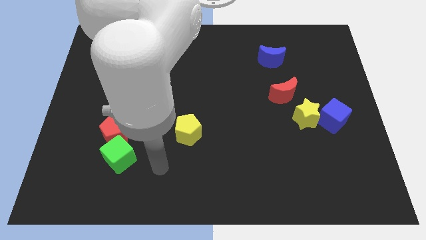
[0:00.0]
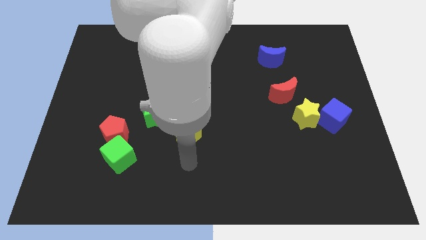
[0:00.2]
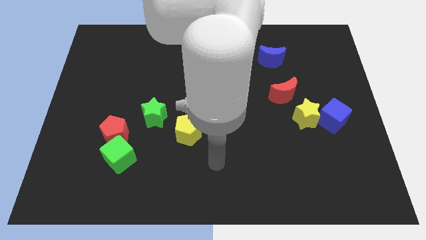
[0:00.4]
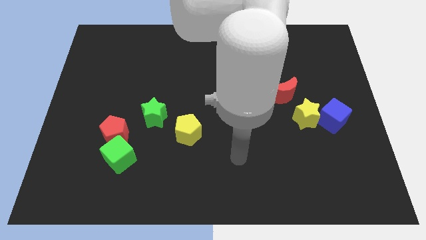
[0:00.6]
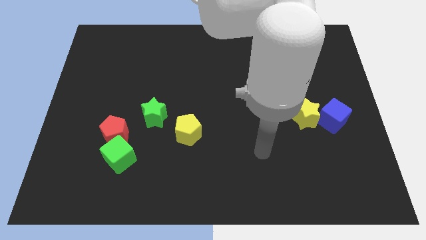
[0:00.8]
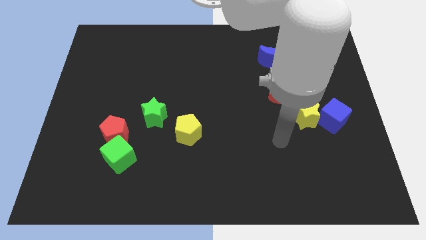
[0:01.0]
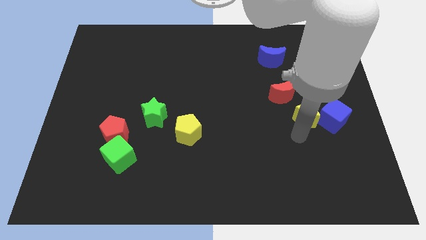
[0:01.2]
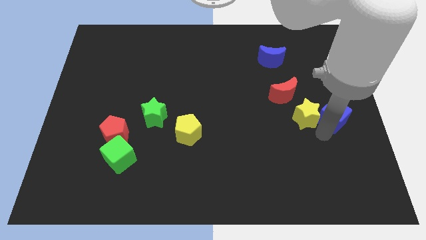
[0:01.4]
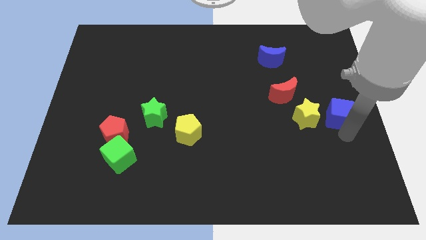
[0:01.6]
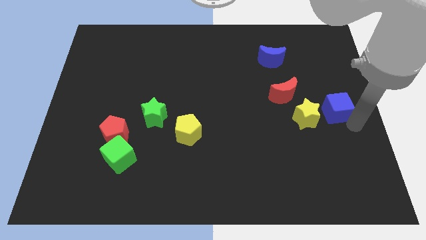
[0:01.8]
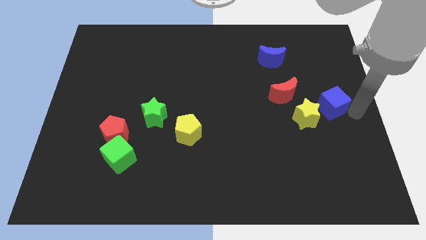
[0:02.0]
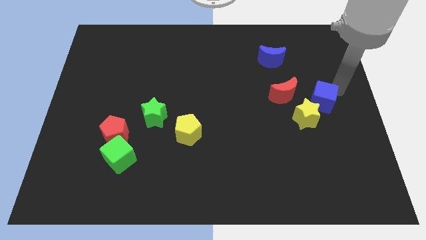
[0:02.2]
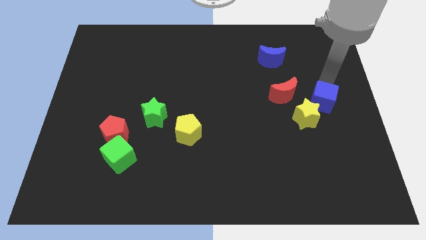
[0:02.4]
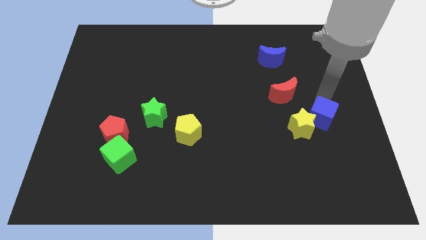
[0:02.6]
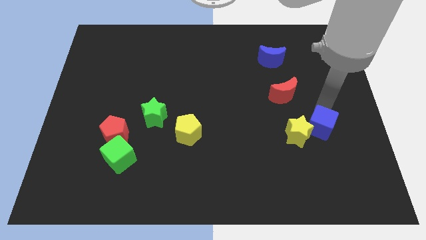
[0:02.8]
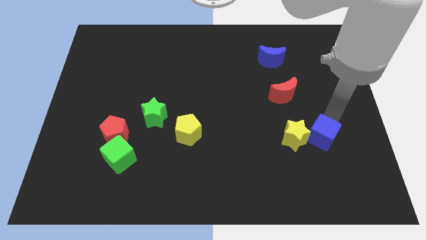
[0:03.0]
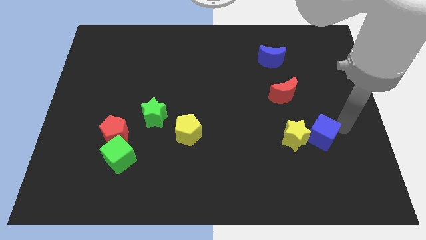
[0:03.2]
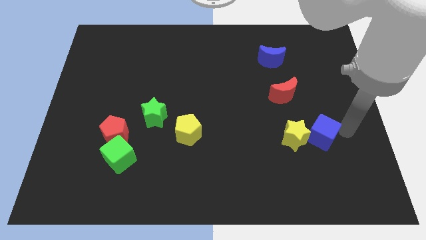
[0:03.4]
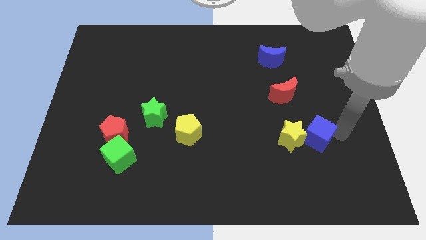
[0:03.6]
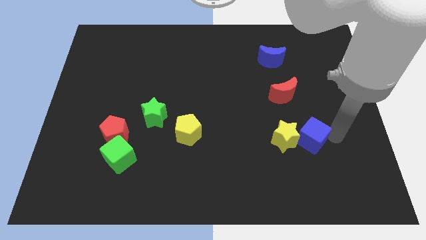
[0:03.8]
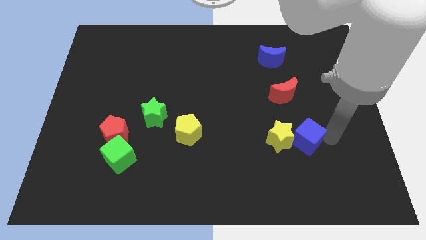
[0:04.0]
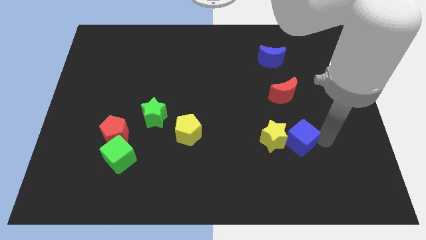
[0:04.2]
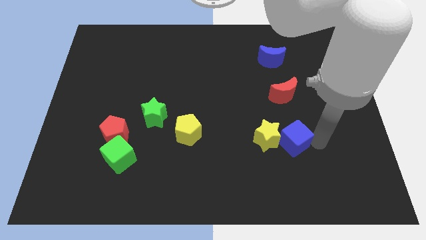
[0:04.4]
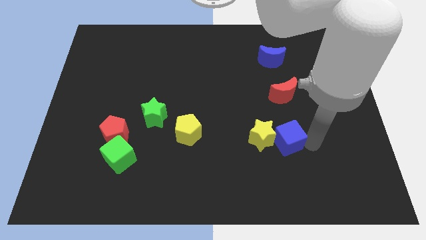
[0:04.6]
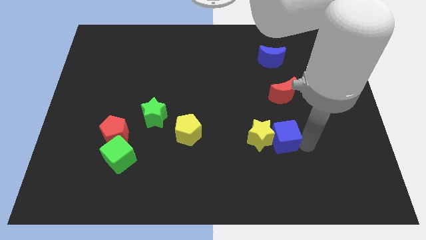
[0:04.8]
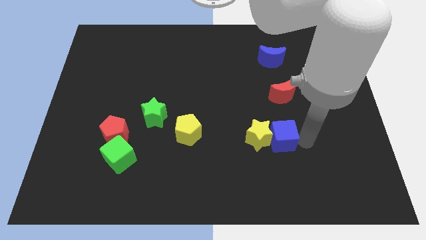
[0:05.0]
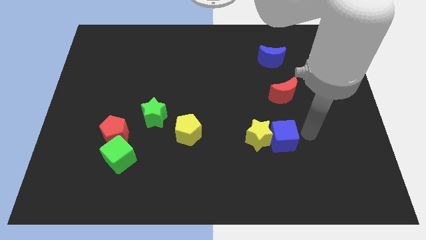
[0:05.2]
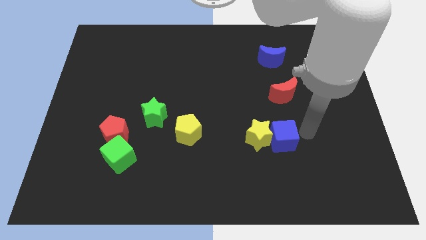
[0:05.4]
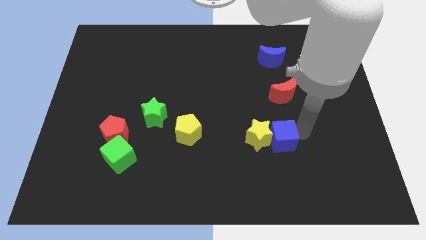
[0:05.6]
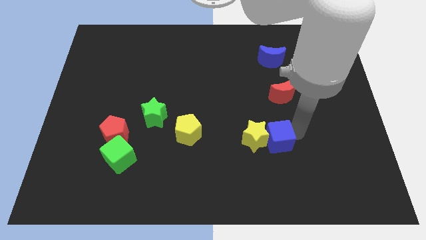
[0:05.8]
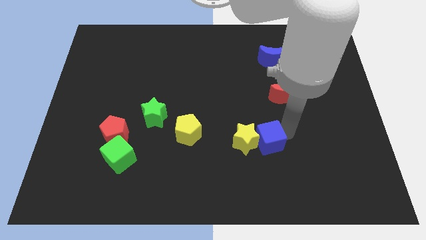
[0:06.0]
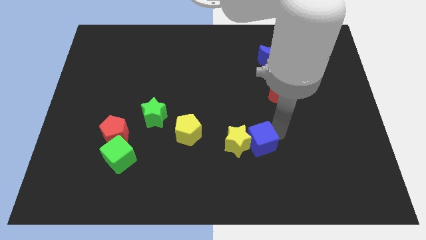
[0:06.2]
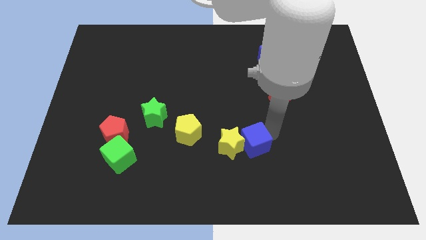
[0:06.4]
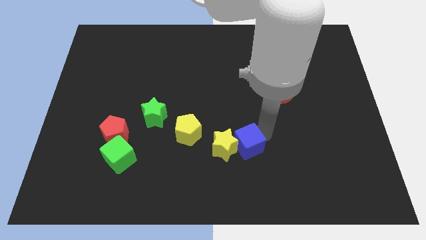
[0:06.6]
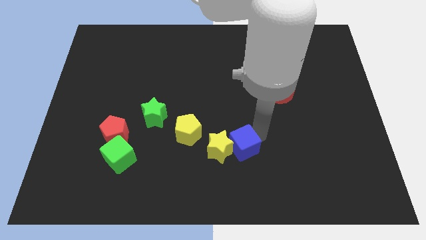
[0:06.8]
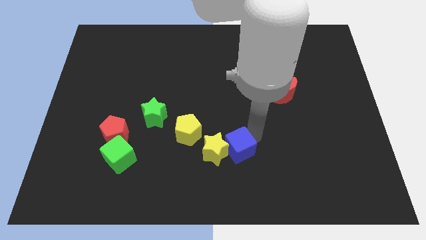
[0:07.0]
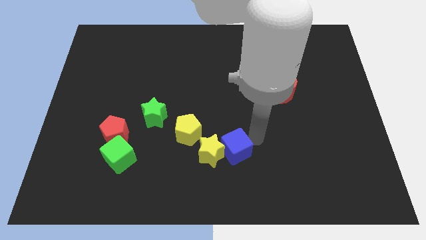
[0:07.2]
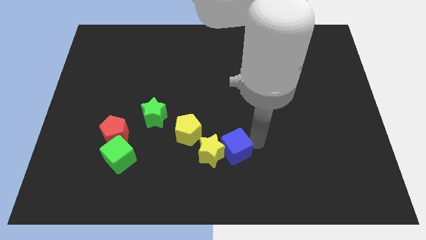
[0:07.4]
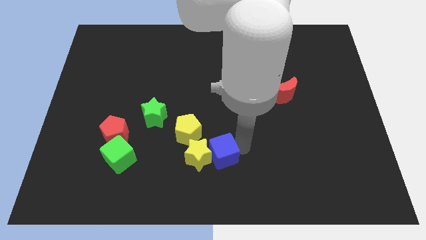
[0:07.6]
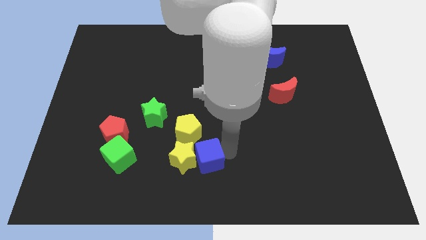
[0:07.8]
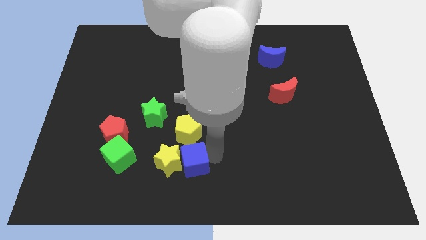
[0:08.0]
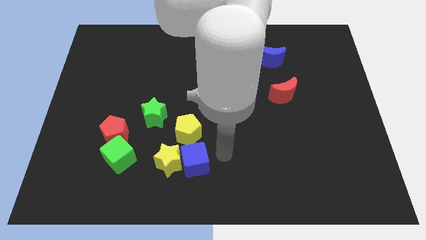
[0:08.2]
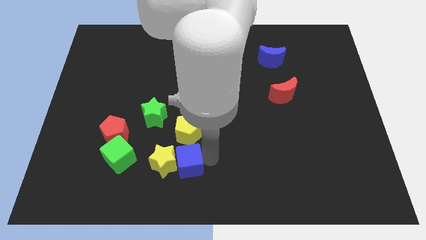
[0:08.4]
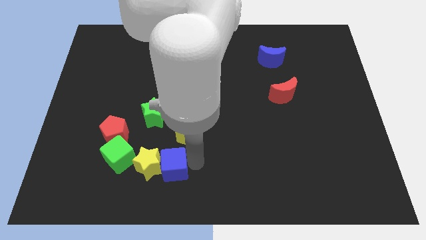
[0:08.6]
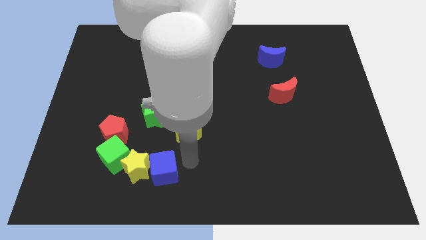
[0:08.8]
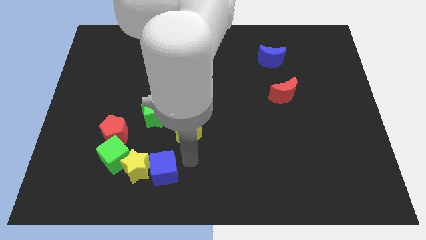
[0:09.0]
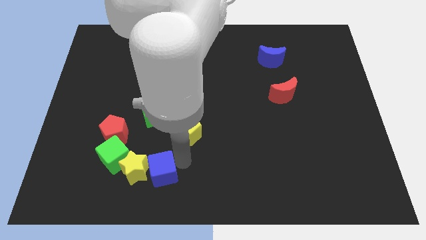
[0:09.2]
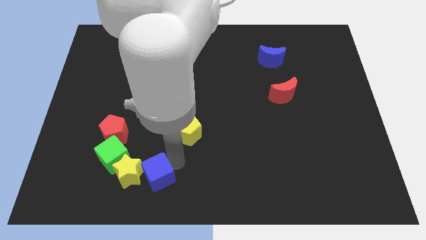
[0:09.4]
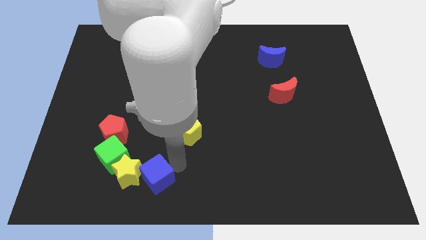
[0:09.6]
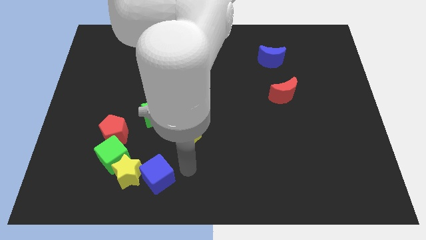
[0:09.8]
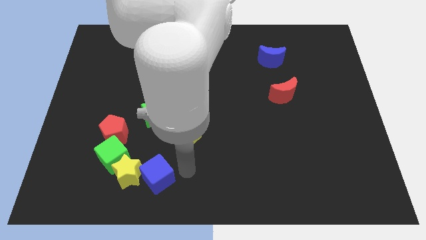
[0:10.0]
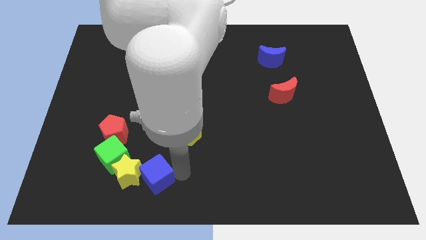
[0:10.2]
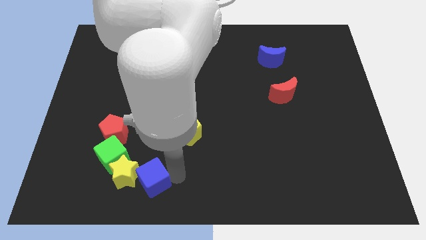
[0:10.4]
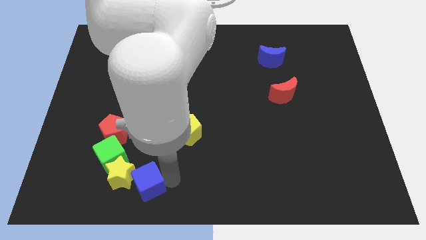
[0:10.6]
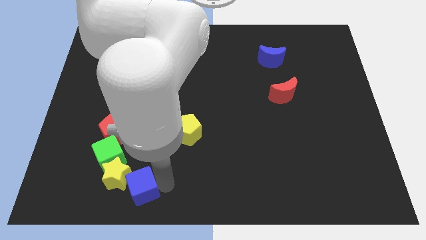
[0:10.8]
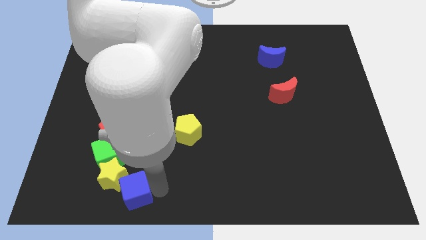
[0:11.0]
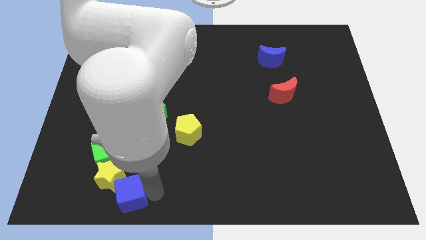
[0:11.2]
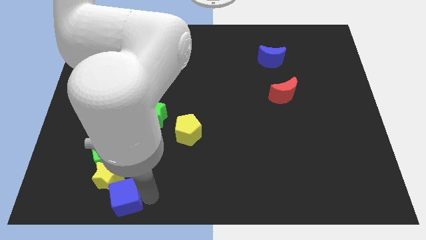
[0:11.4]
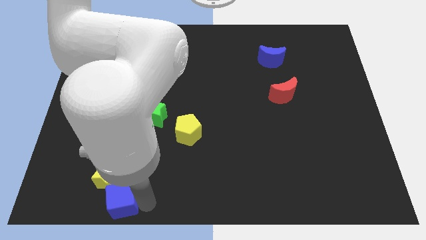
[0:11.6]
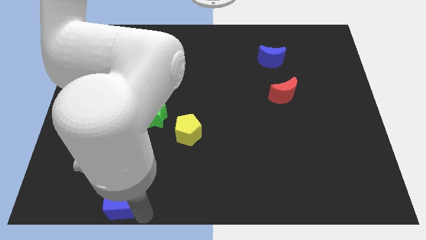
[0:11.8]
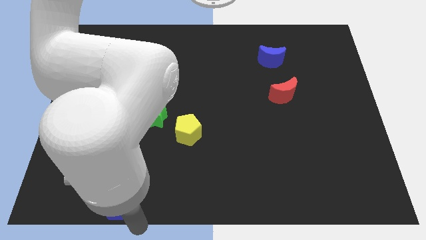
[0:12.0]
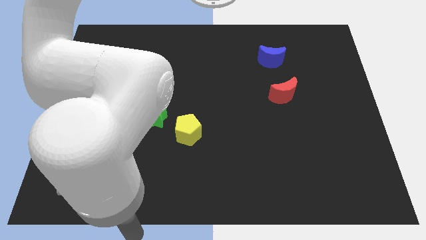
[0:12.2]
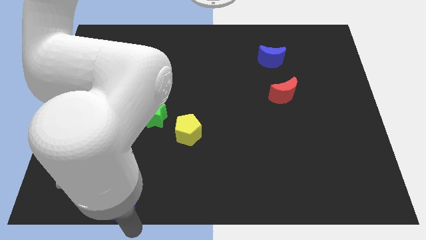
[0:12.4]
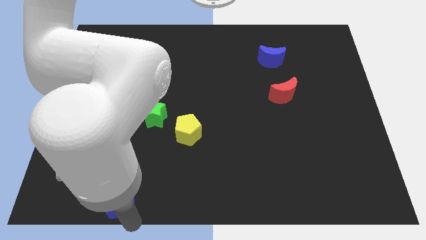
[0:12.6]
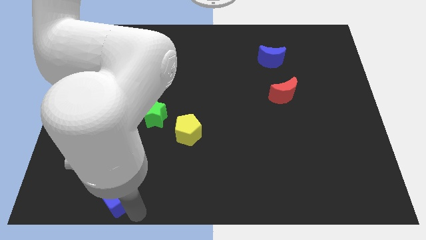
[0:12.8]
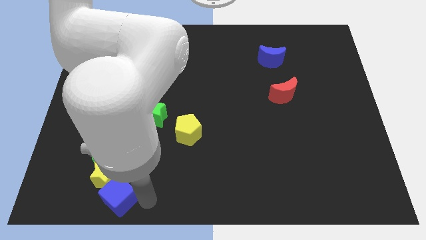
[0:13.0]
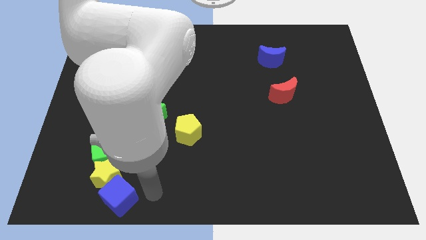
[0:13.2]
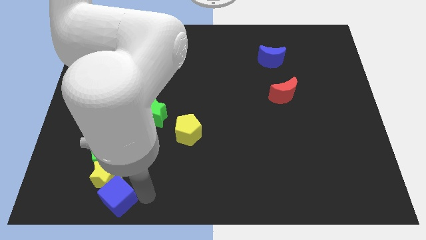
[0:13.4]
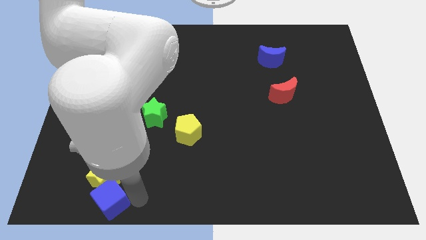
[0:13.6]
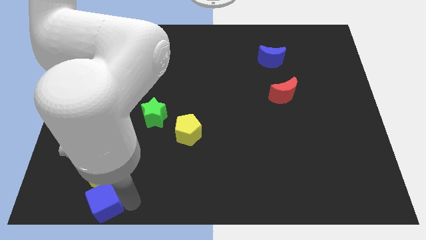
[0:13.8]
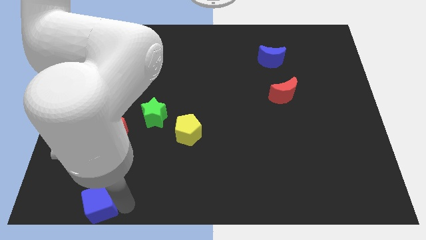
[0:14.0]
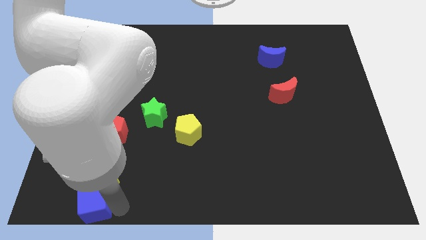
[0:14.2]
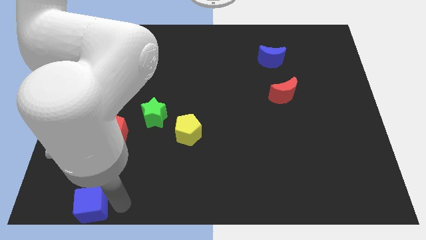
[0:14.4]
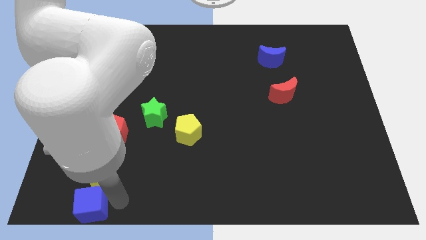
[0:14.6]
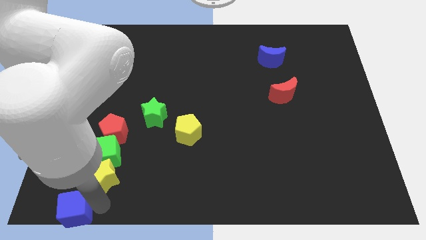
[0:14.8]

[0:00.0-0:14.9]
slide the blue cube to the bottom left corner
